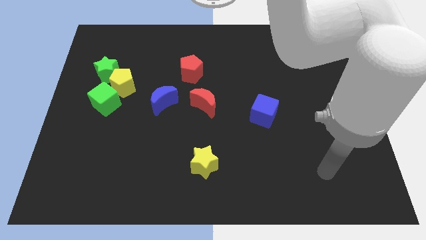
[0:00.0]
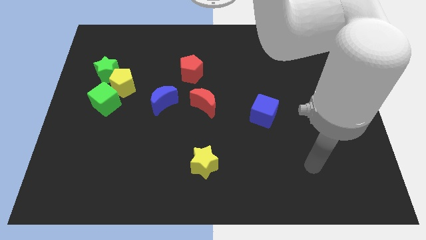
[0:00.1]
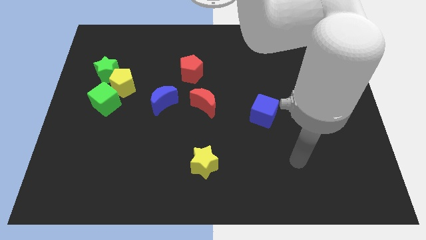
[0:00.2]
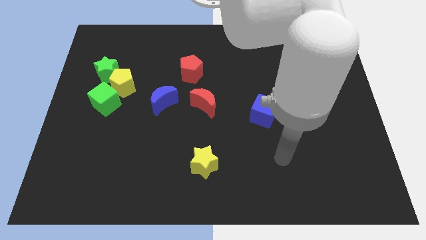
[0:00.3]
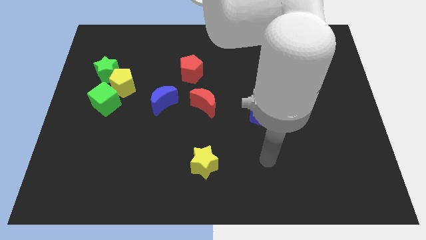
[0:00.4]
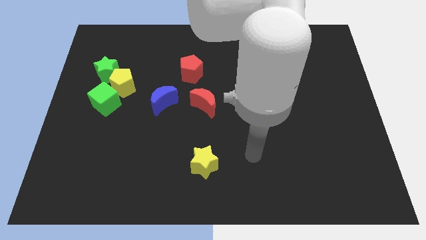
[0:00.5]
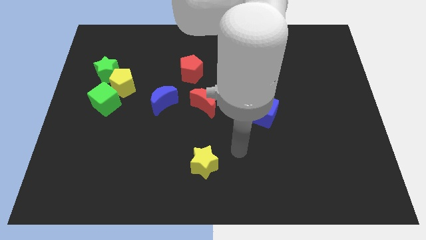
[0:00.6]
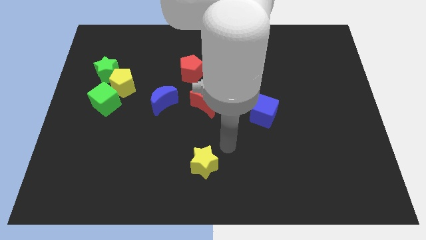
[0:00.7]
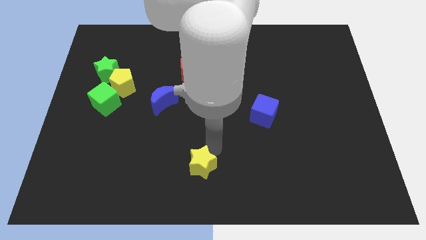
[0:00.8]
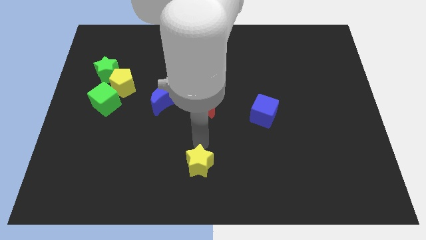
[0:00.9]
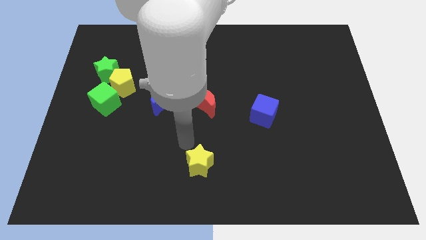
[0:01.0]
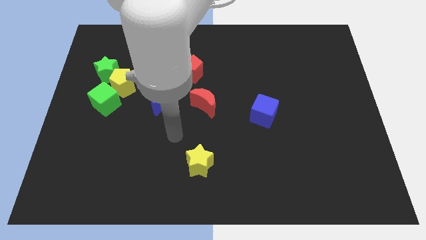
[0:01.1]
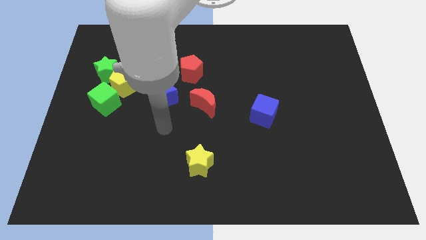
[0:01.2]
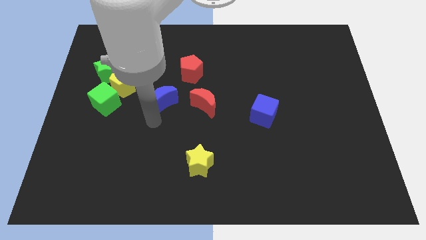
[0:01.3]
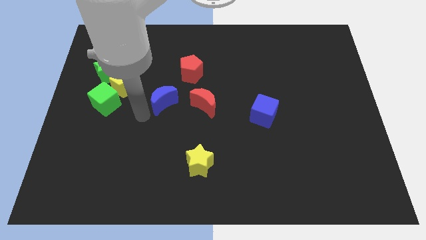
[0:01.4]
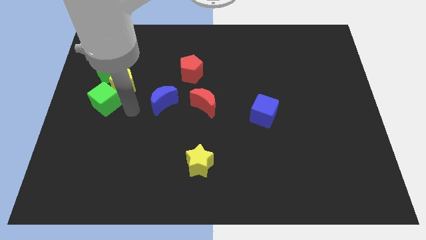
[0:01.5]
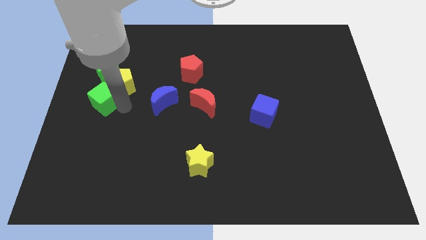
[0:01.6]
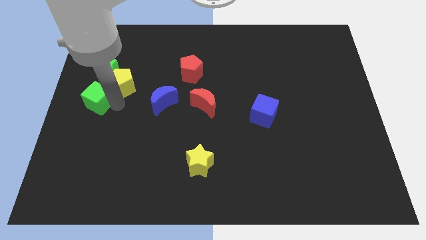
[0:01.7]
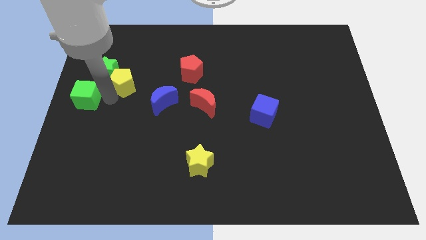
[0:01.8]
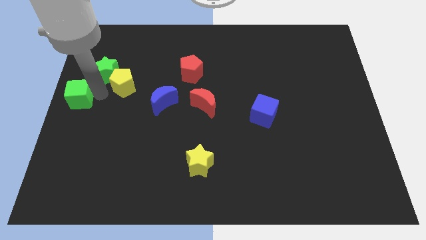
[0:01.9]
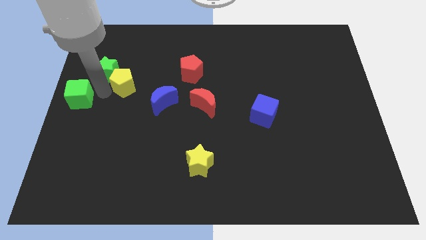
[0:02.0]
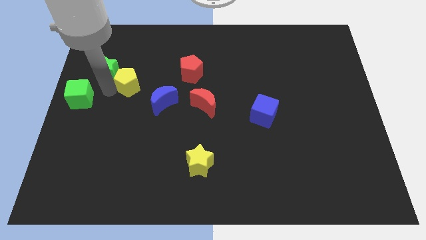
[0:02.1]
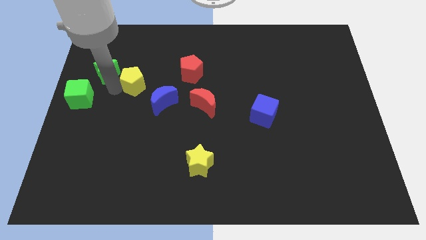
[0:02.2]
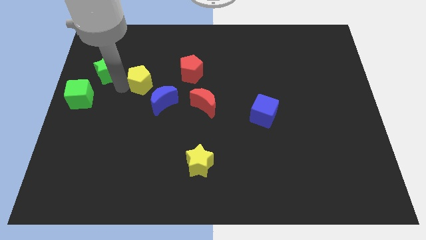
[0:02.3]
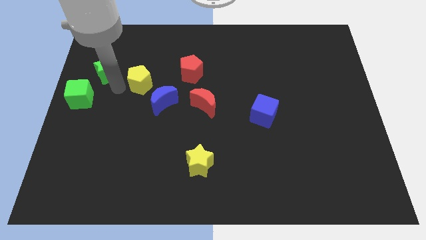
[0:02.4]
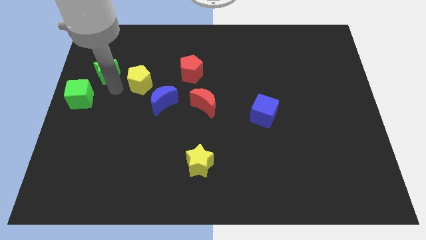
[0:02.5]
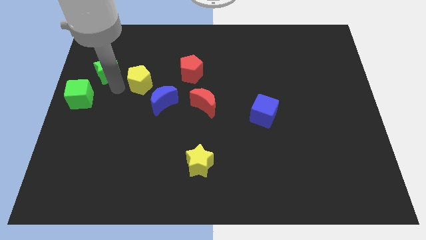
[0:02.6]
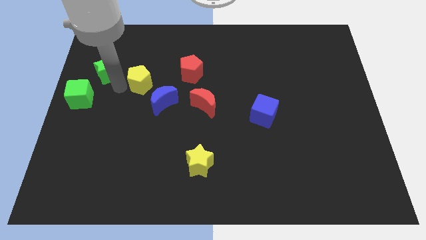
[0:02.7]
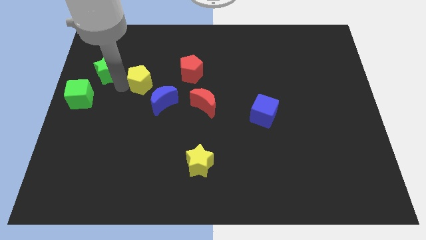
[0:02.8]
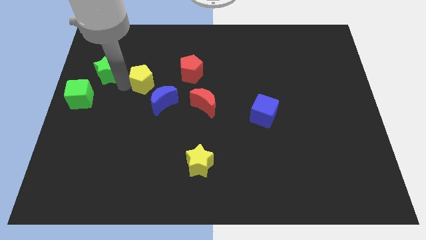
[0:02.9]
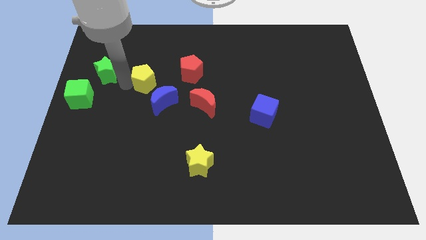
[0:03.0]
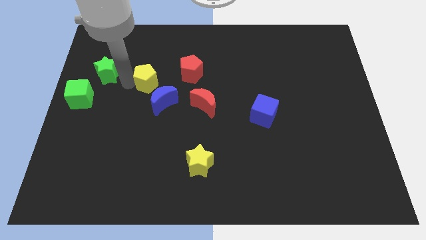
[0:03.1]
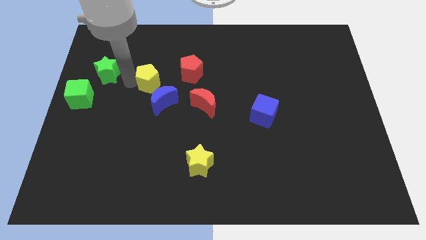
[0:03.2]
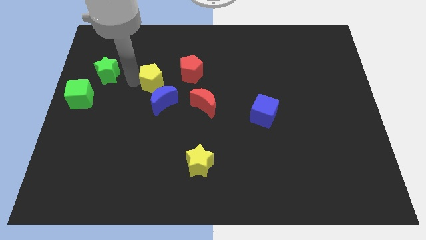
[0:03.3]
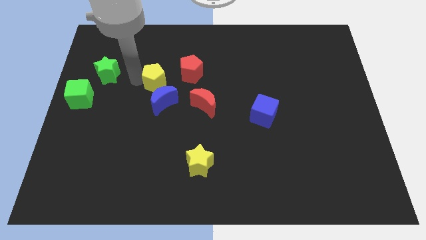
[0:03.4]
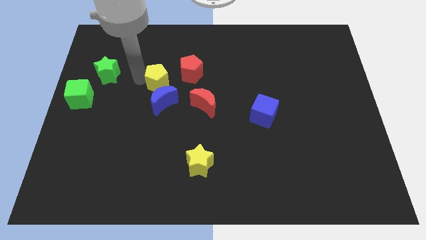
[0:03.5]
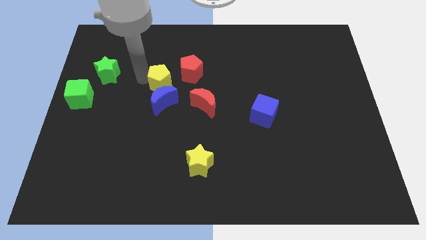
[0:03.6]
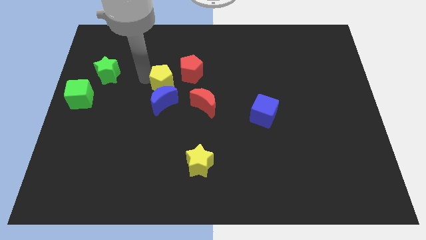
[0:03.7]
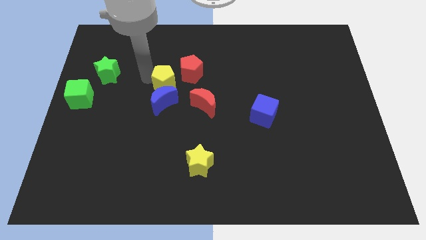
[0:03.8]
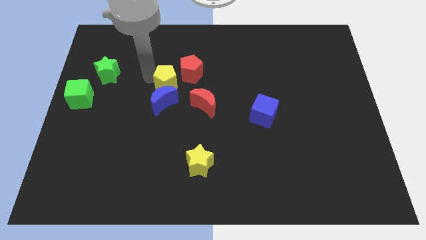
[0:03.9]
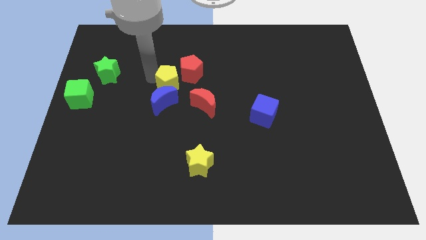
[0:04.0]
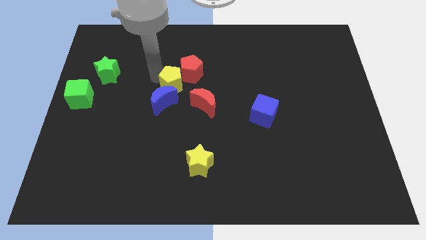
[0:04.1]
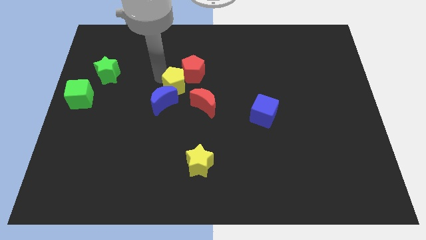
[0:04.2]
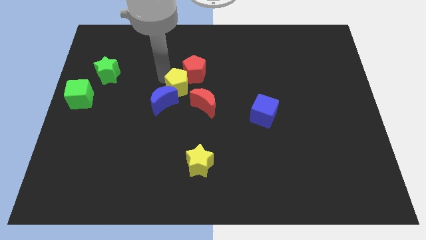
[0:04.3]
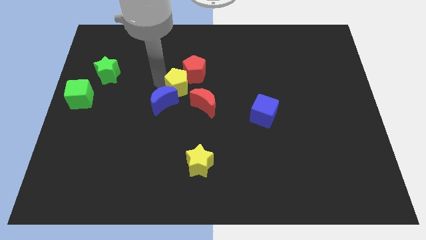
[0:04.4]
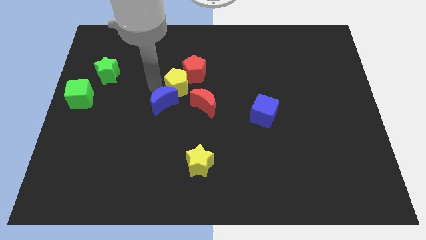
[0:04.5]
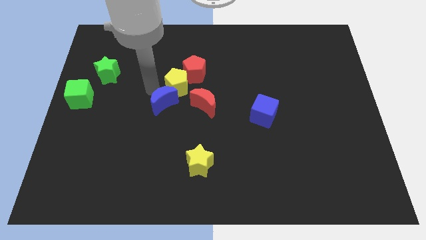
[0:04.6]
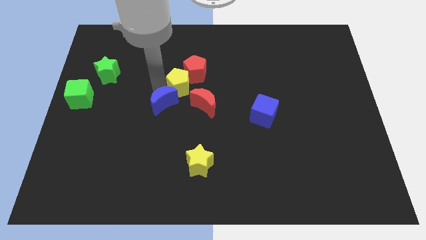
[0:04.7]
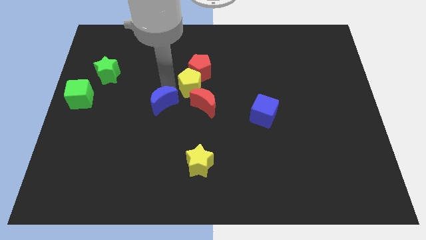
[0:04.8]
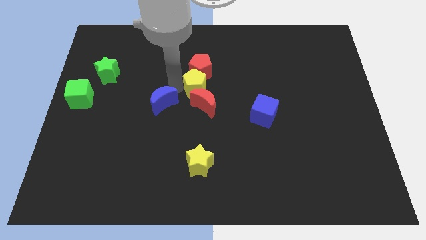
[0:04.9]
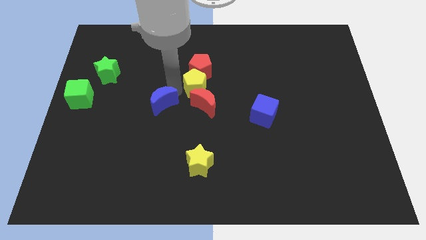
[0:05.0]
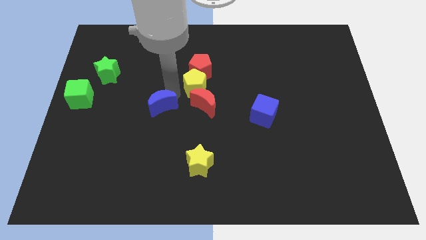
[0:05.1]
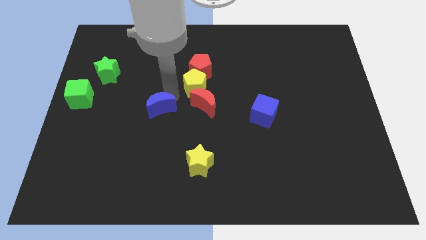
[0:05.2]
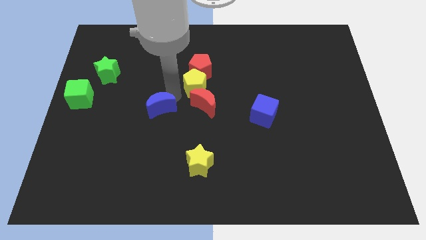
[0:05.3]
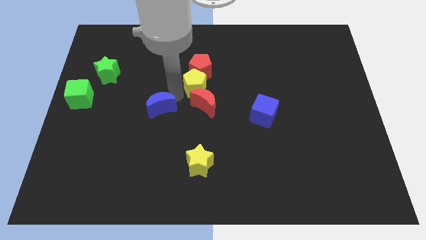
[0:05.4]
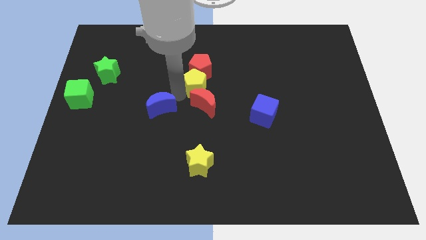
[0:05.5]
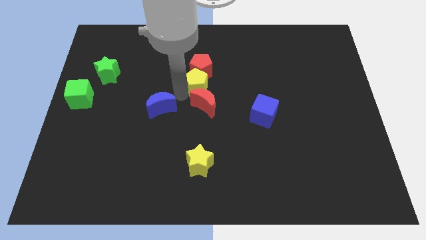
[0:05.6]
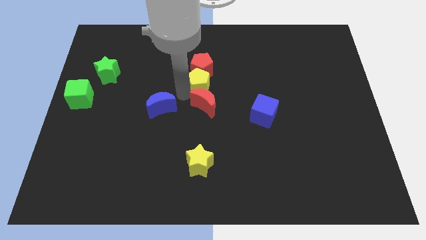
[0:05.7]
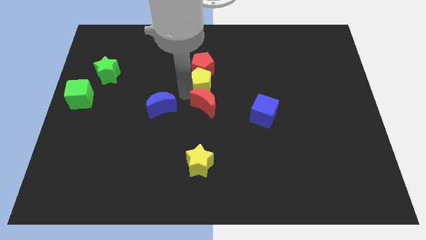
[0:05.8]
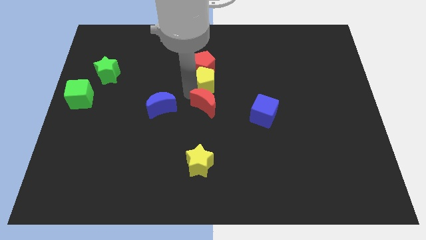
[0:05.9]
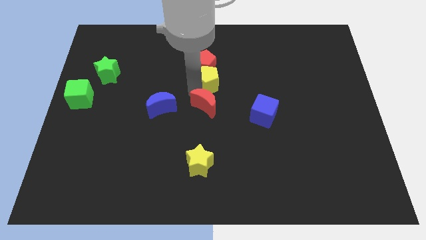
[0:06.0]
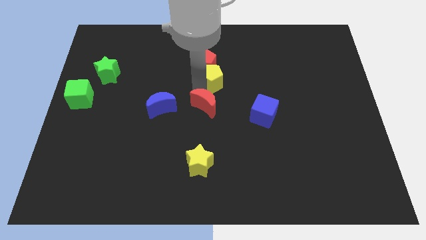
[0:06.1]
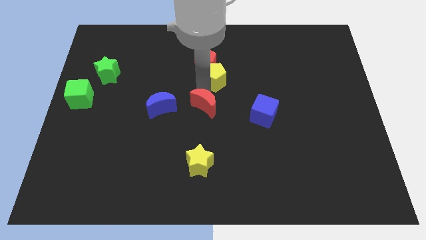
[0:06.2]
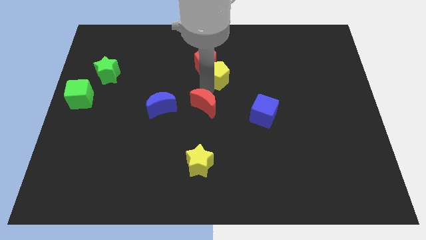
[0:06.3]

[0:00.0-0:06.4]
move the yellow pentagon just right of the red pentagon
